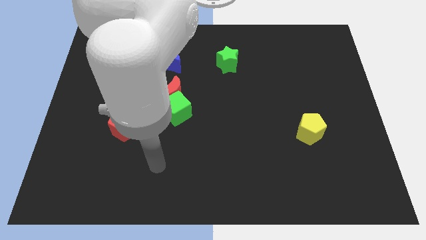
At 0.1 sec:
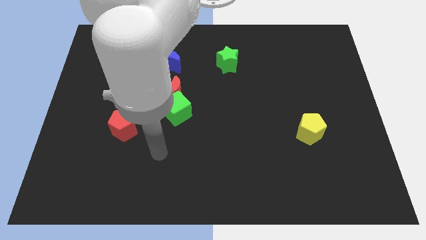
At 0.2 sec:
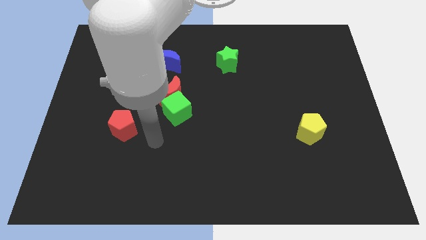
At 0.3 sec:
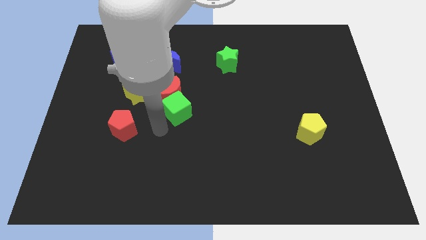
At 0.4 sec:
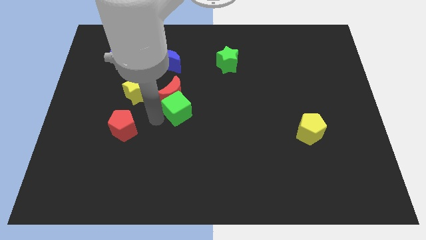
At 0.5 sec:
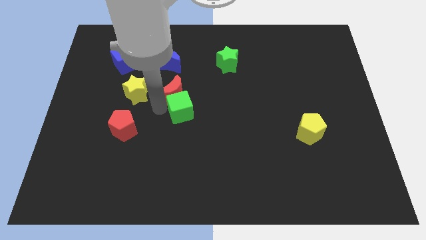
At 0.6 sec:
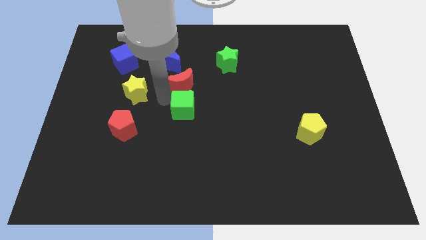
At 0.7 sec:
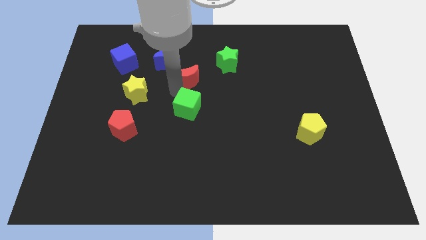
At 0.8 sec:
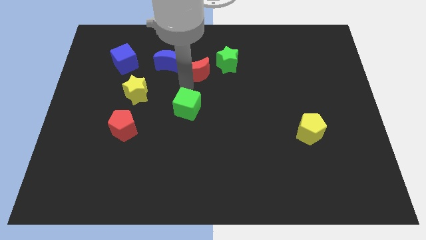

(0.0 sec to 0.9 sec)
pull the green cube apart from the red moon

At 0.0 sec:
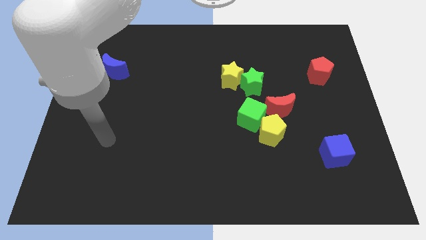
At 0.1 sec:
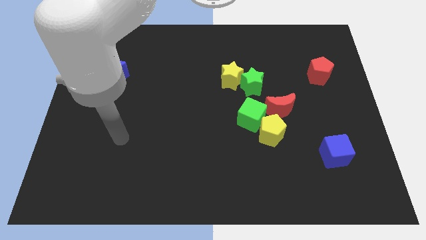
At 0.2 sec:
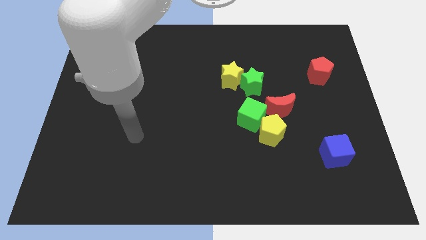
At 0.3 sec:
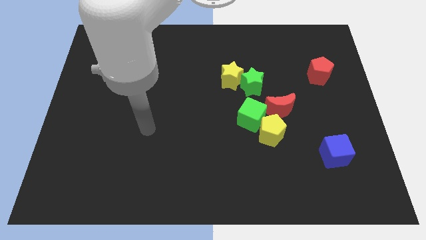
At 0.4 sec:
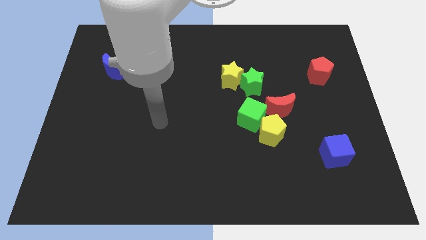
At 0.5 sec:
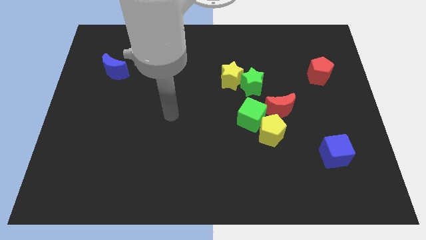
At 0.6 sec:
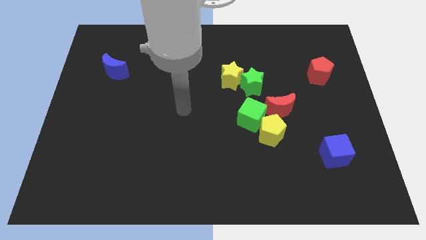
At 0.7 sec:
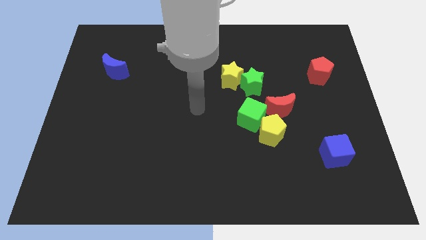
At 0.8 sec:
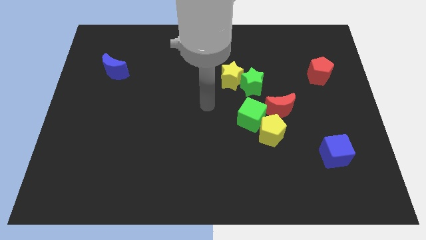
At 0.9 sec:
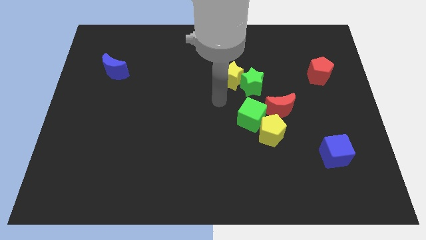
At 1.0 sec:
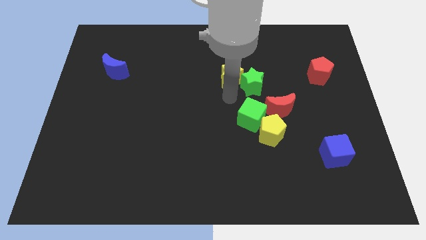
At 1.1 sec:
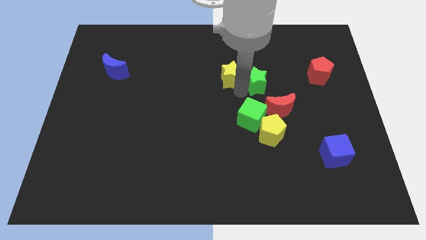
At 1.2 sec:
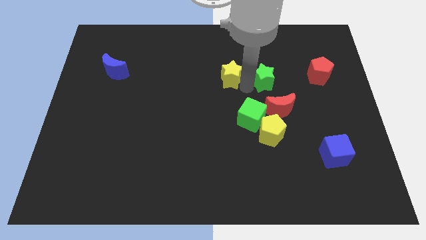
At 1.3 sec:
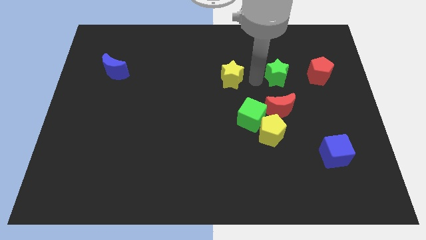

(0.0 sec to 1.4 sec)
move the yellow star away from the green star

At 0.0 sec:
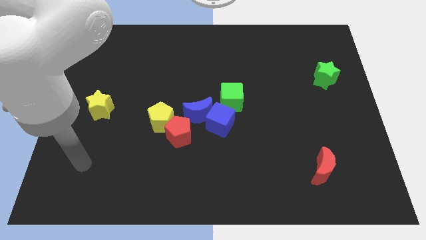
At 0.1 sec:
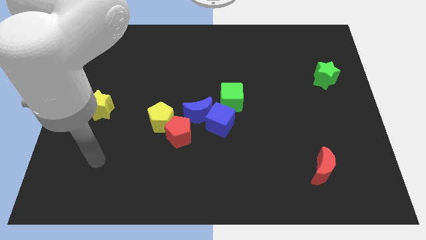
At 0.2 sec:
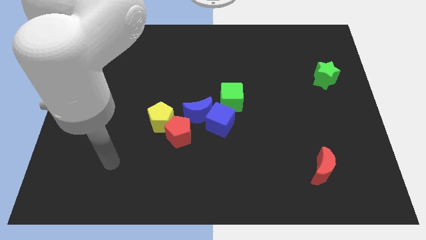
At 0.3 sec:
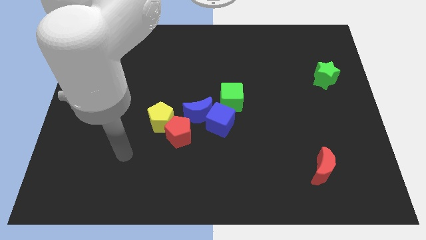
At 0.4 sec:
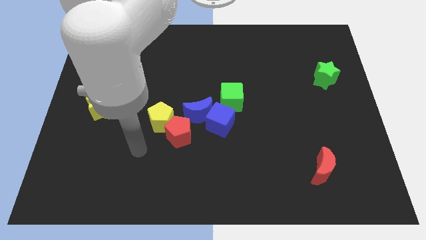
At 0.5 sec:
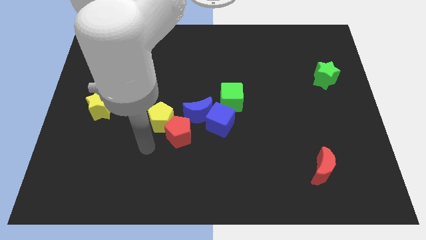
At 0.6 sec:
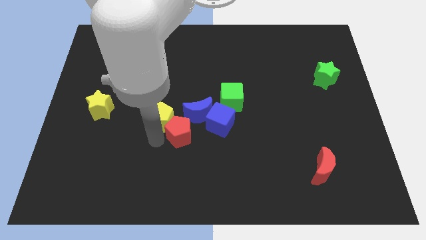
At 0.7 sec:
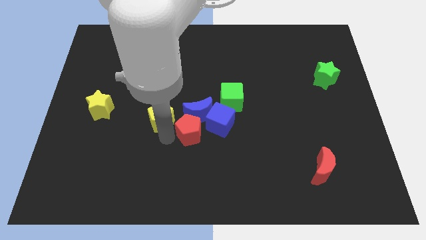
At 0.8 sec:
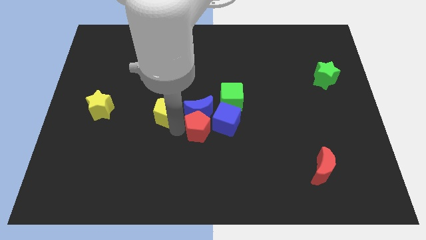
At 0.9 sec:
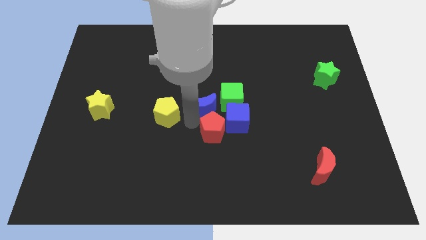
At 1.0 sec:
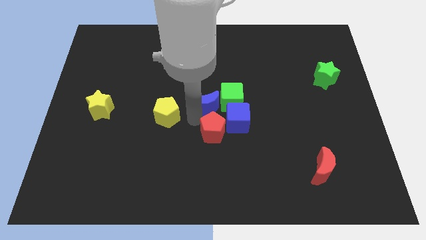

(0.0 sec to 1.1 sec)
pull the yellow pentagon apart from the red pentagon and blue moon

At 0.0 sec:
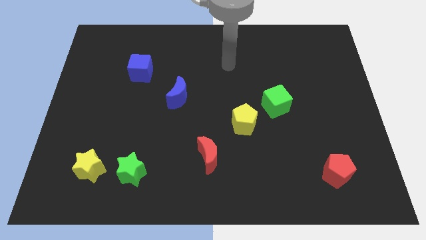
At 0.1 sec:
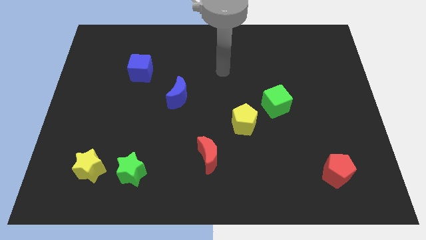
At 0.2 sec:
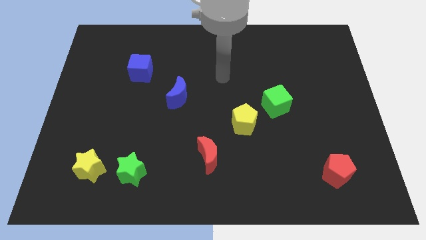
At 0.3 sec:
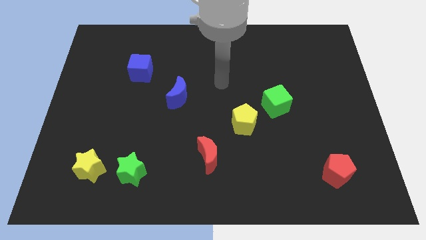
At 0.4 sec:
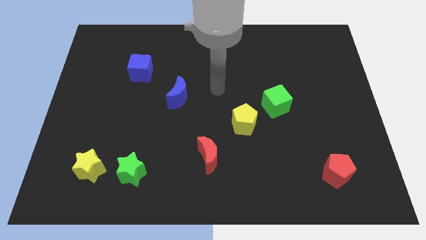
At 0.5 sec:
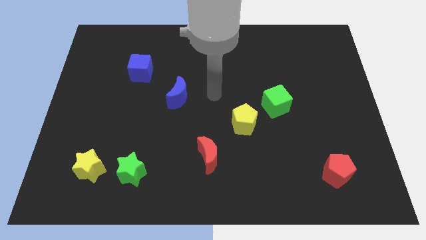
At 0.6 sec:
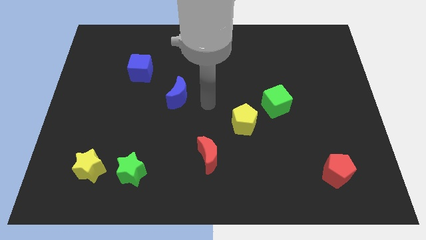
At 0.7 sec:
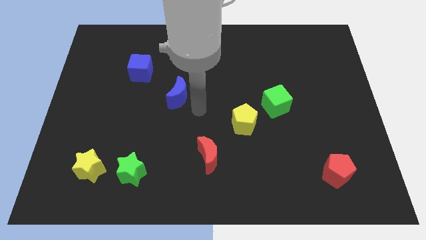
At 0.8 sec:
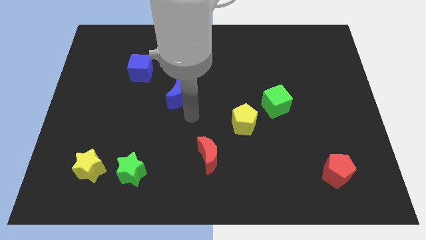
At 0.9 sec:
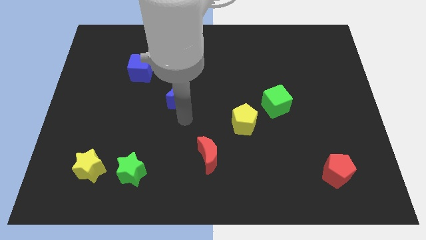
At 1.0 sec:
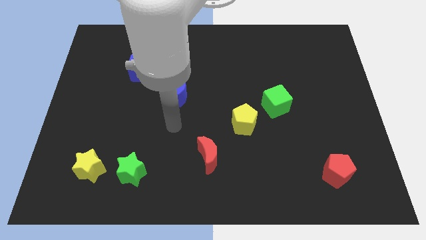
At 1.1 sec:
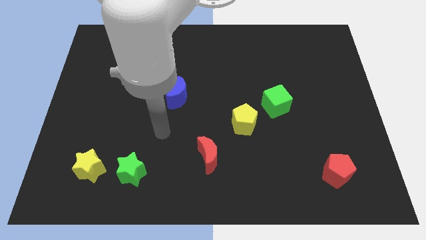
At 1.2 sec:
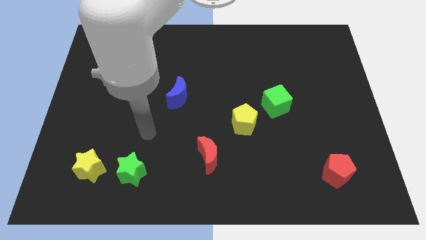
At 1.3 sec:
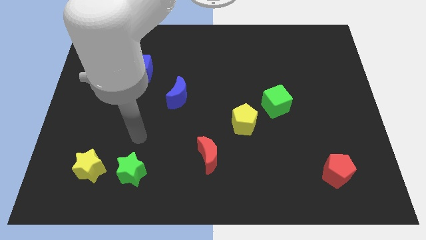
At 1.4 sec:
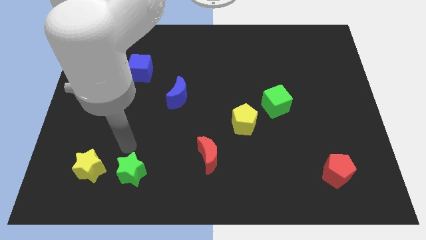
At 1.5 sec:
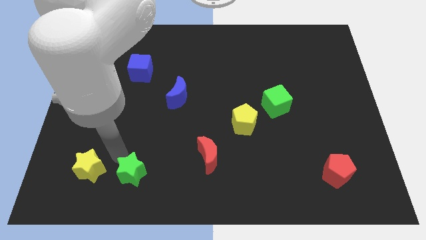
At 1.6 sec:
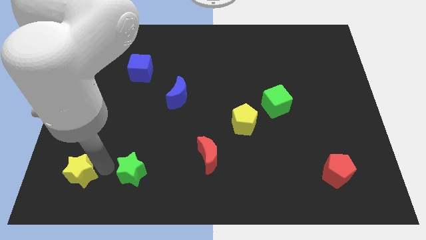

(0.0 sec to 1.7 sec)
move the green star away from the yellow star

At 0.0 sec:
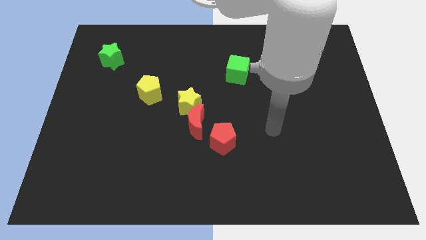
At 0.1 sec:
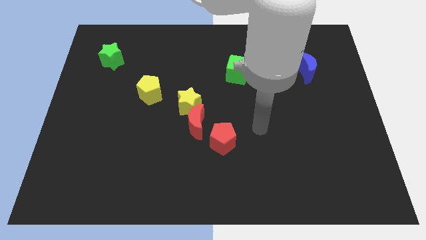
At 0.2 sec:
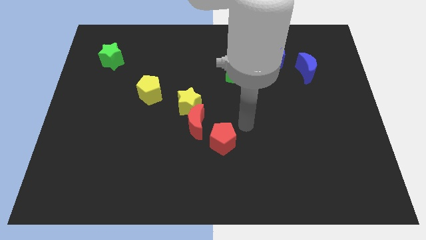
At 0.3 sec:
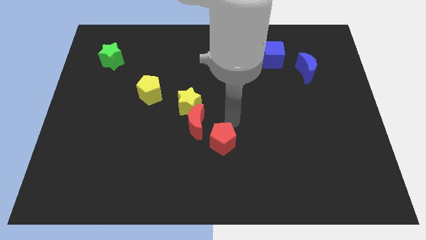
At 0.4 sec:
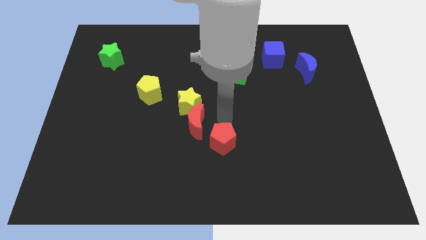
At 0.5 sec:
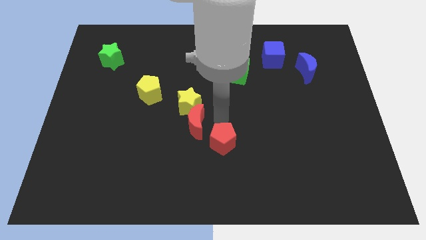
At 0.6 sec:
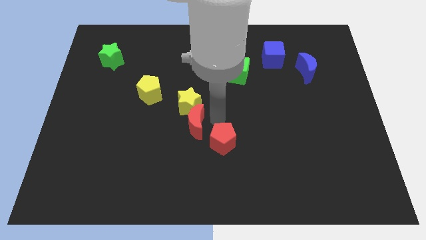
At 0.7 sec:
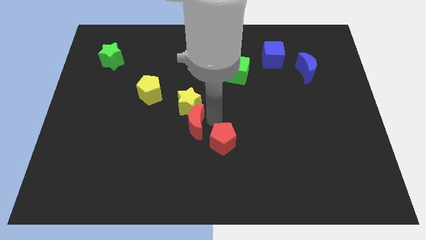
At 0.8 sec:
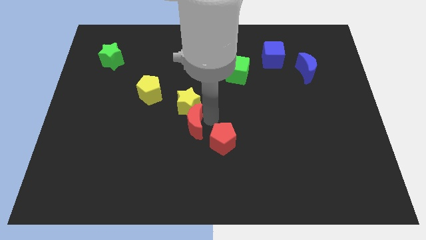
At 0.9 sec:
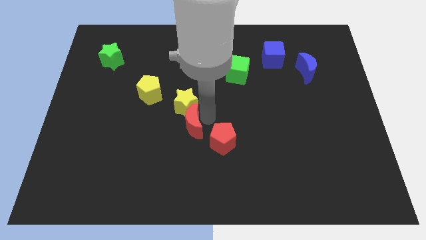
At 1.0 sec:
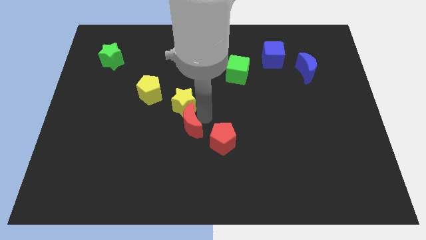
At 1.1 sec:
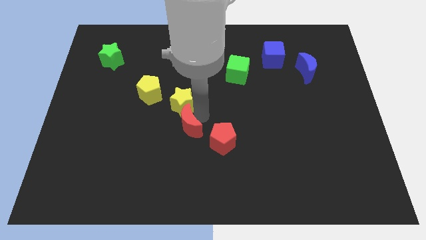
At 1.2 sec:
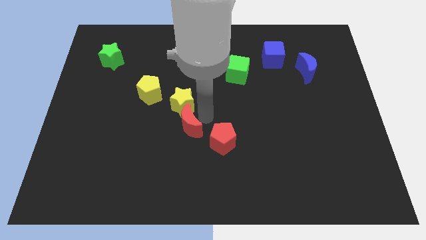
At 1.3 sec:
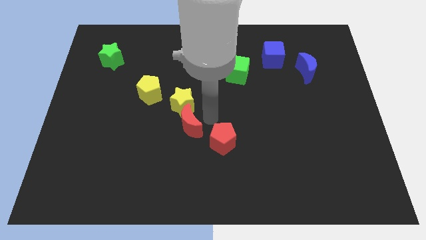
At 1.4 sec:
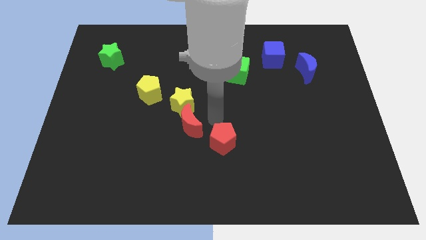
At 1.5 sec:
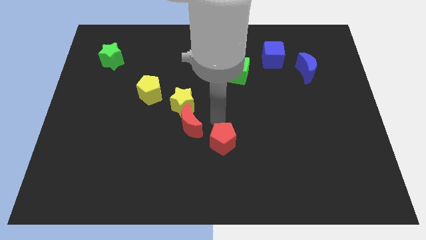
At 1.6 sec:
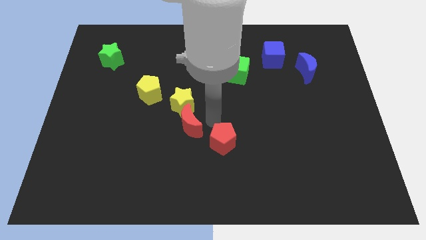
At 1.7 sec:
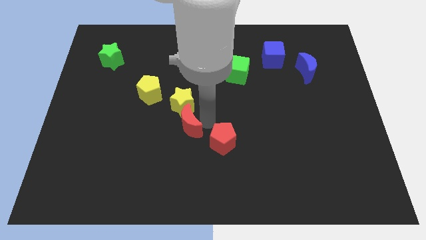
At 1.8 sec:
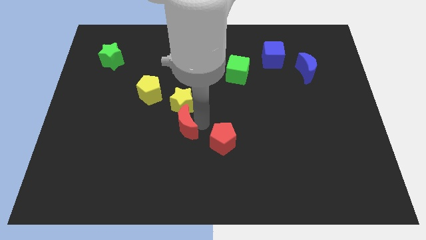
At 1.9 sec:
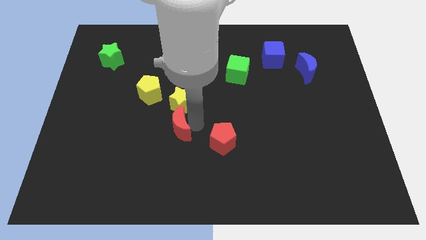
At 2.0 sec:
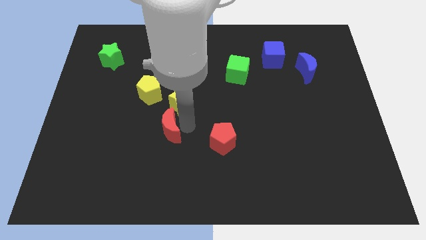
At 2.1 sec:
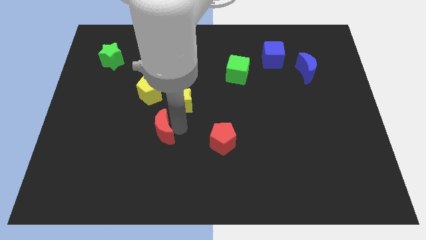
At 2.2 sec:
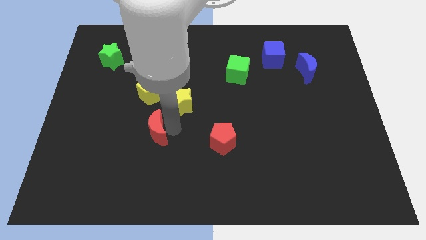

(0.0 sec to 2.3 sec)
separate the red moon from the yellow star and red pentagon

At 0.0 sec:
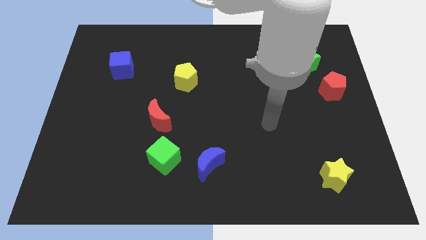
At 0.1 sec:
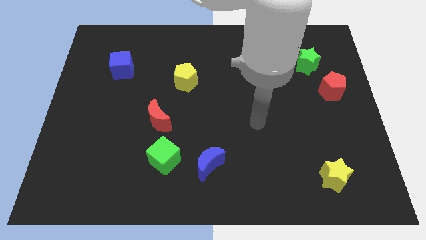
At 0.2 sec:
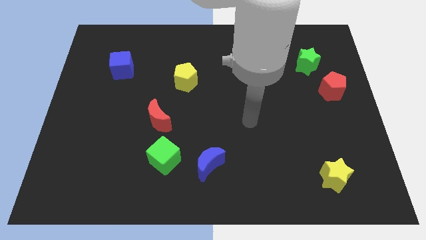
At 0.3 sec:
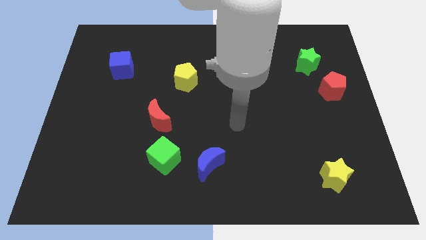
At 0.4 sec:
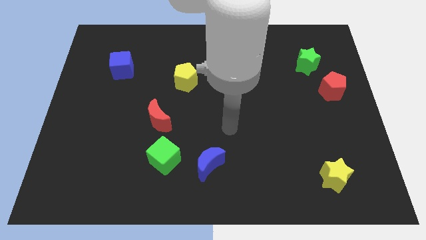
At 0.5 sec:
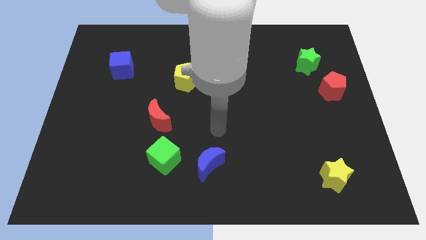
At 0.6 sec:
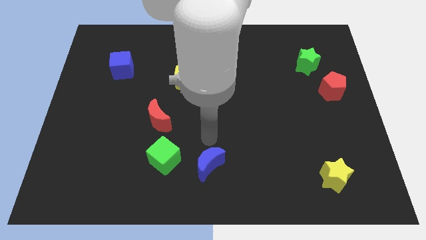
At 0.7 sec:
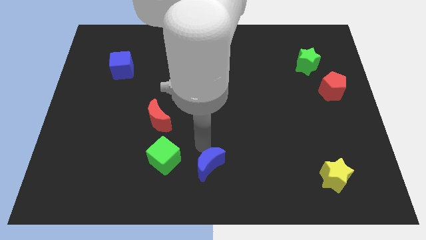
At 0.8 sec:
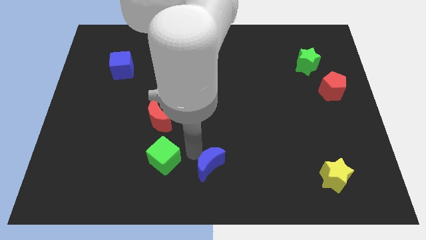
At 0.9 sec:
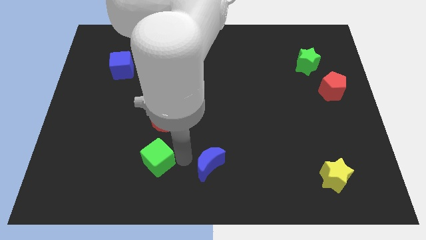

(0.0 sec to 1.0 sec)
separate the blue moon from the green cube

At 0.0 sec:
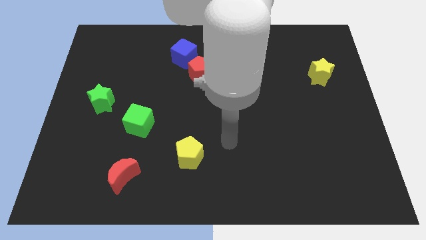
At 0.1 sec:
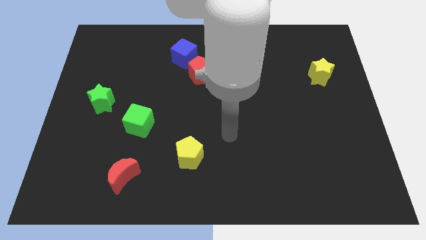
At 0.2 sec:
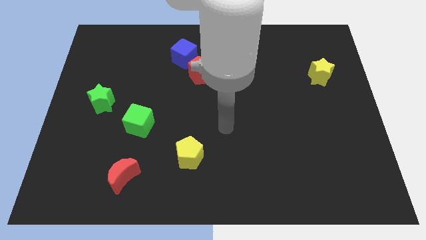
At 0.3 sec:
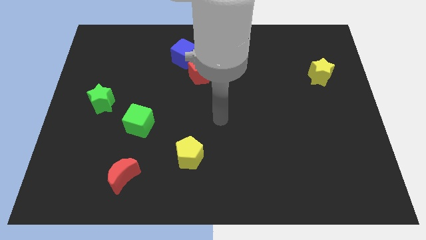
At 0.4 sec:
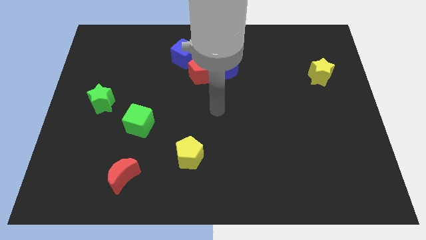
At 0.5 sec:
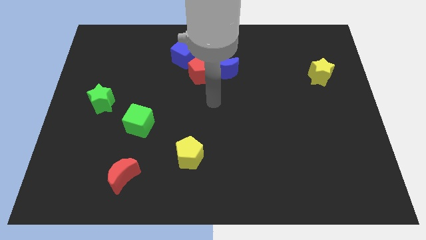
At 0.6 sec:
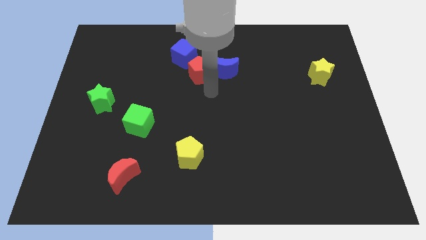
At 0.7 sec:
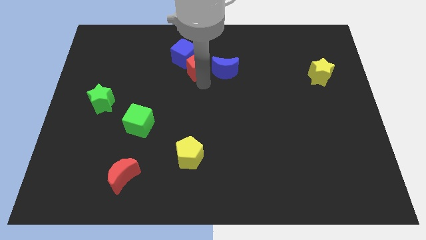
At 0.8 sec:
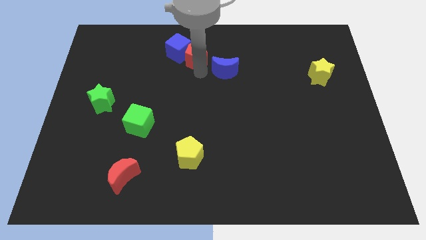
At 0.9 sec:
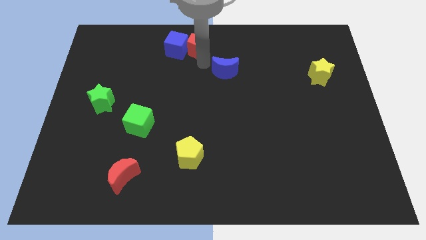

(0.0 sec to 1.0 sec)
separate the blue moon from the red pentagon
